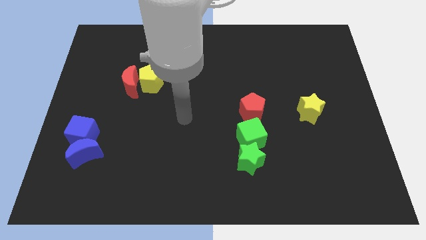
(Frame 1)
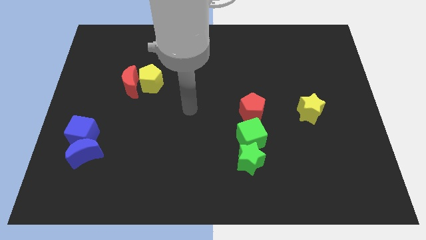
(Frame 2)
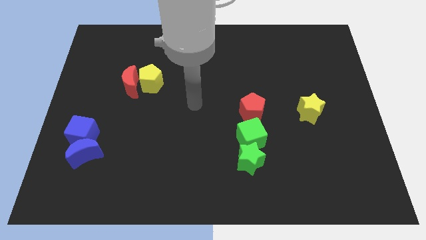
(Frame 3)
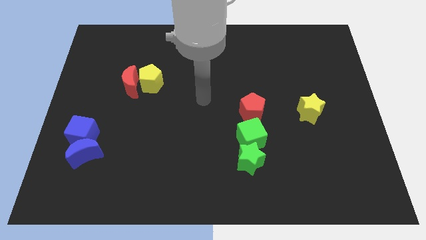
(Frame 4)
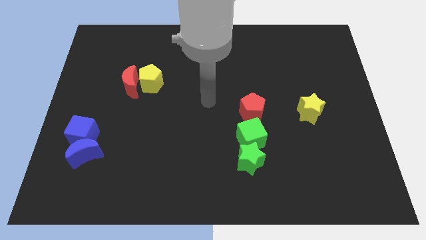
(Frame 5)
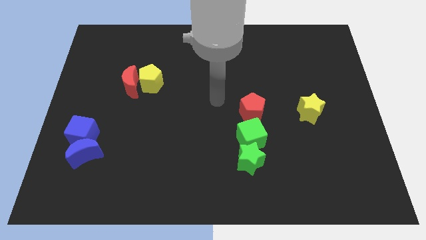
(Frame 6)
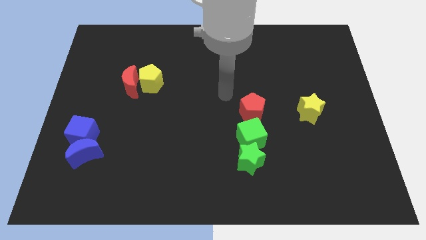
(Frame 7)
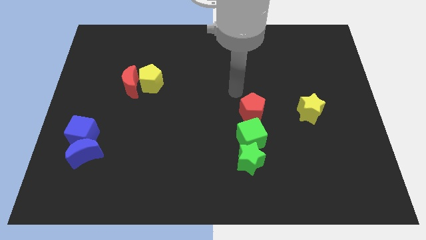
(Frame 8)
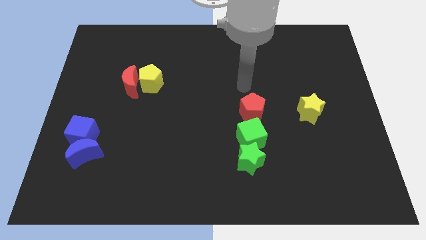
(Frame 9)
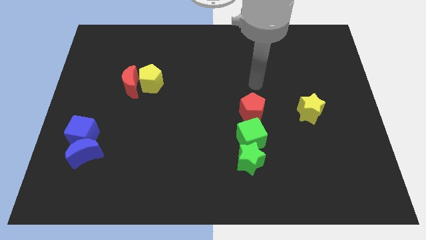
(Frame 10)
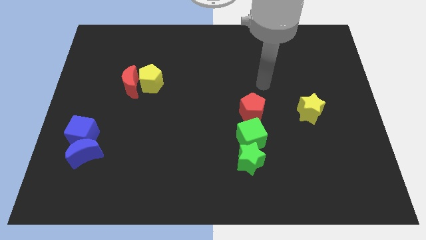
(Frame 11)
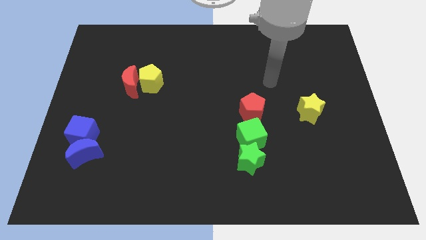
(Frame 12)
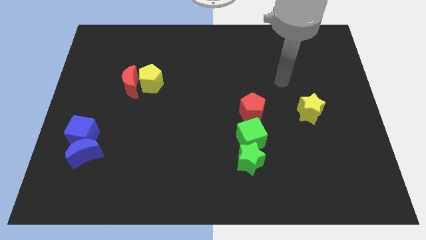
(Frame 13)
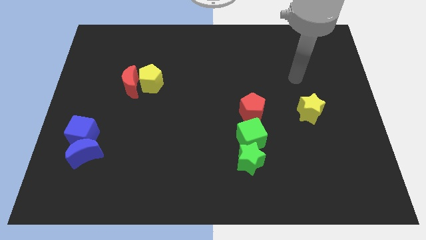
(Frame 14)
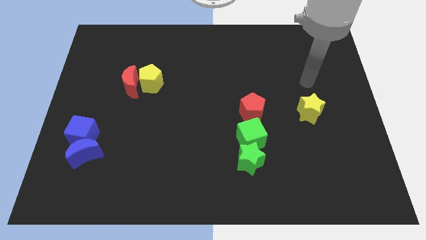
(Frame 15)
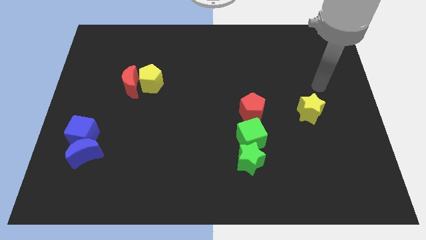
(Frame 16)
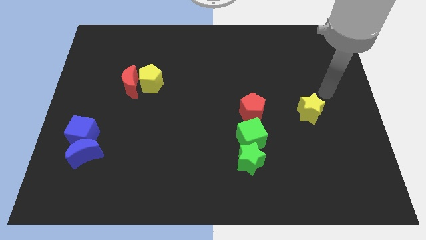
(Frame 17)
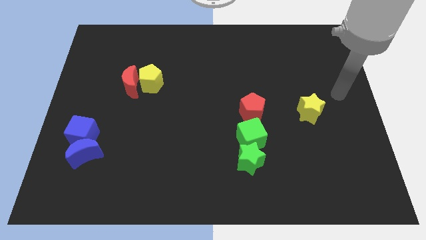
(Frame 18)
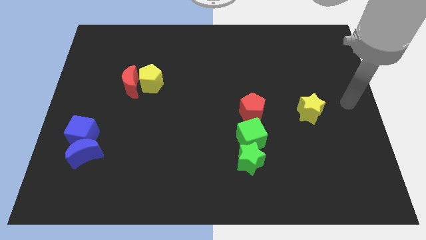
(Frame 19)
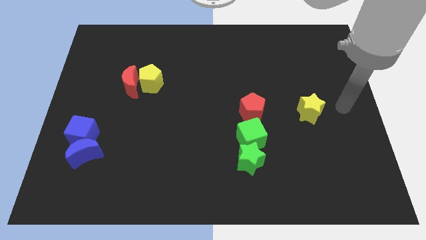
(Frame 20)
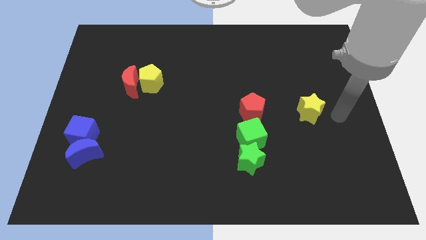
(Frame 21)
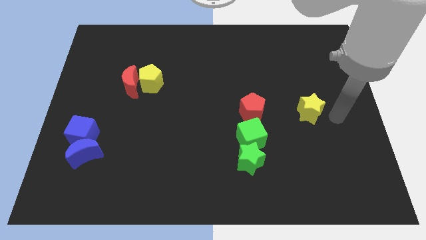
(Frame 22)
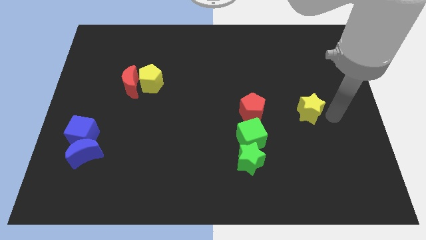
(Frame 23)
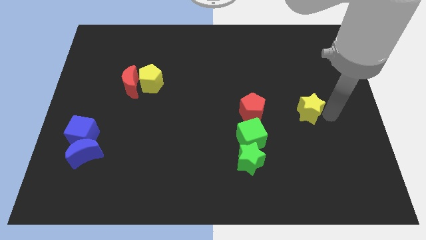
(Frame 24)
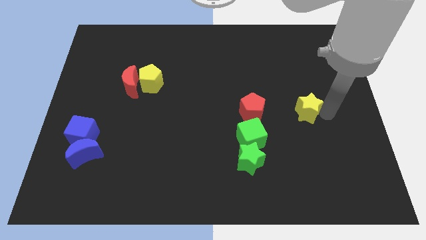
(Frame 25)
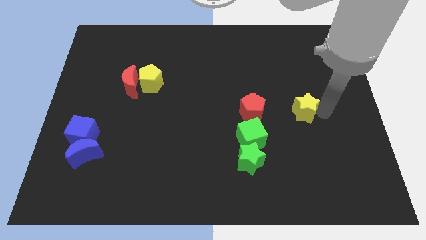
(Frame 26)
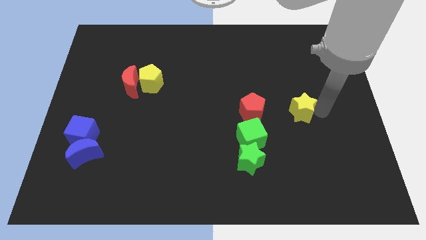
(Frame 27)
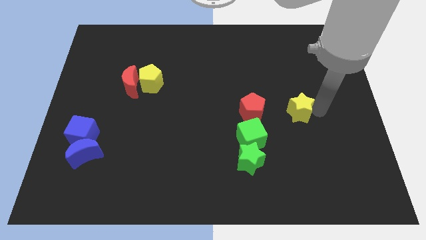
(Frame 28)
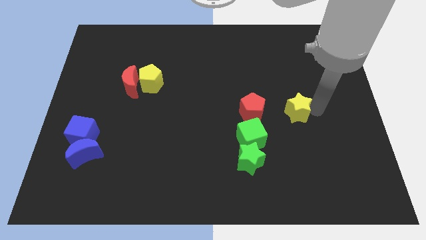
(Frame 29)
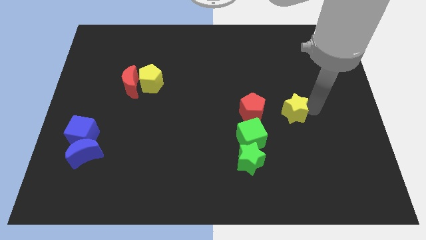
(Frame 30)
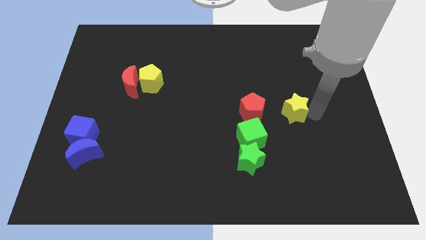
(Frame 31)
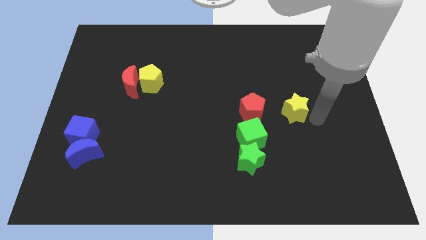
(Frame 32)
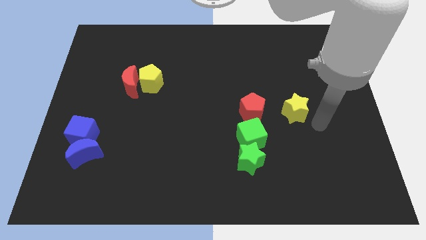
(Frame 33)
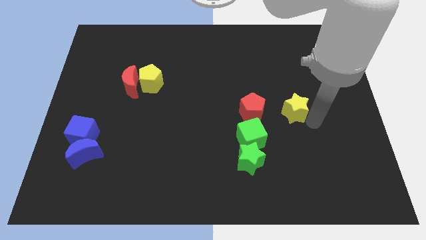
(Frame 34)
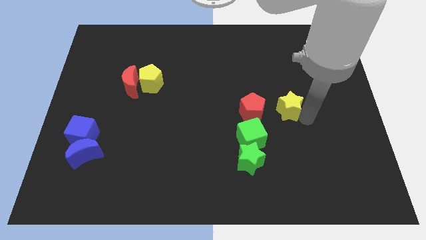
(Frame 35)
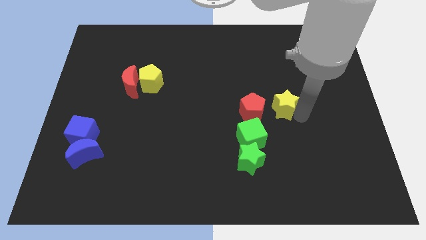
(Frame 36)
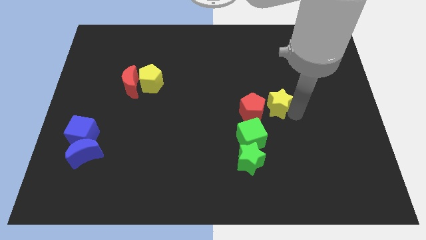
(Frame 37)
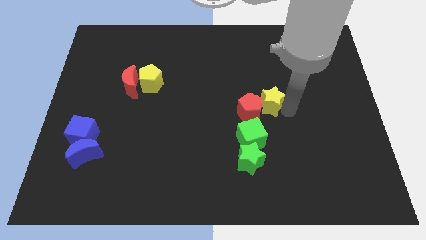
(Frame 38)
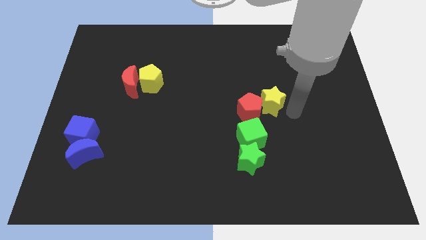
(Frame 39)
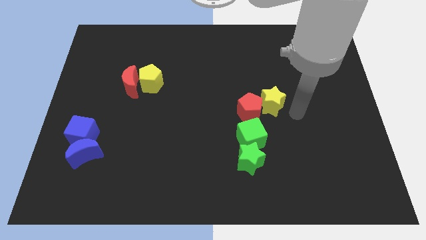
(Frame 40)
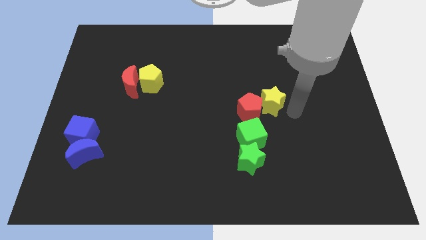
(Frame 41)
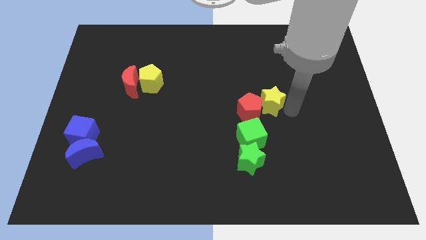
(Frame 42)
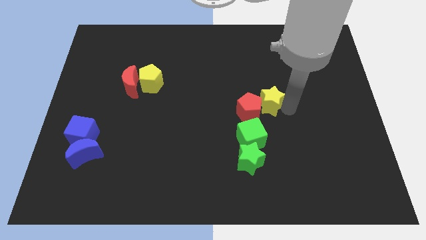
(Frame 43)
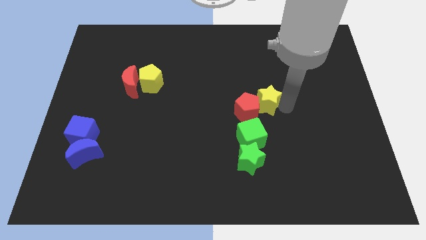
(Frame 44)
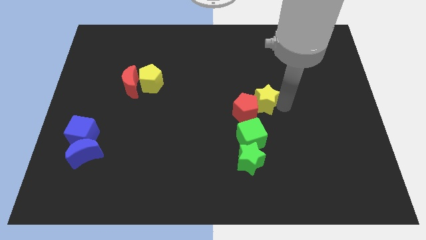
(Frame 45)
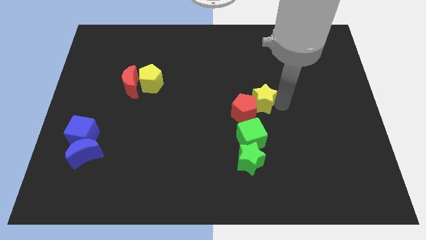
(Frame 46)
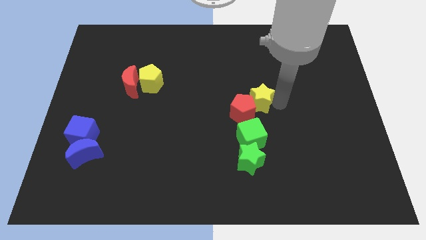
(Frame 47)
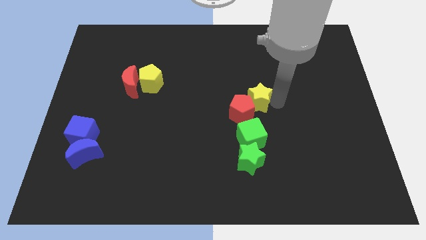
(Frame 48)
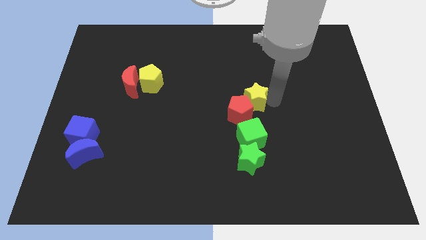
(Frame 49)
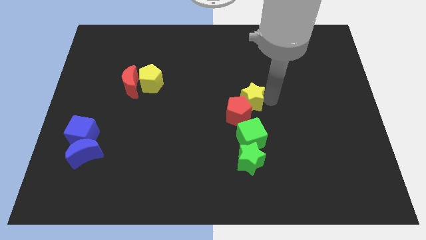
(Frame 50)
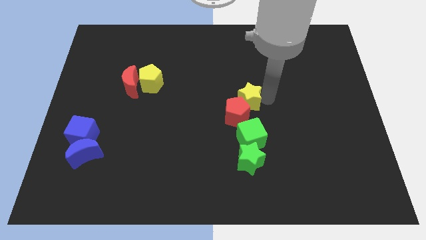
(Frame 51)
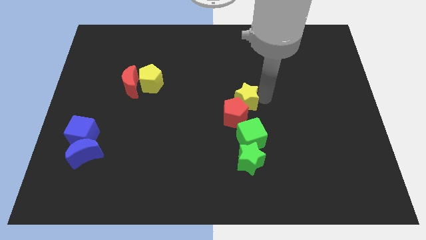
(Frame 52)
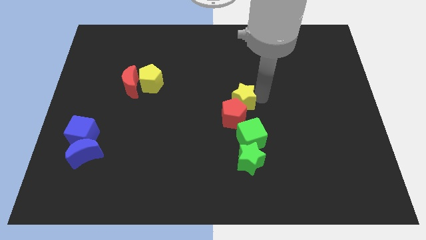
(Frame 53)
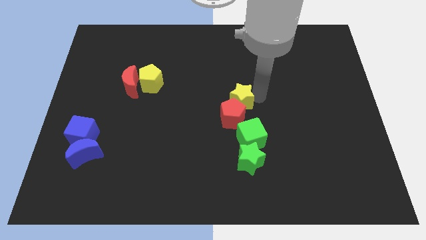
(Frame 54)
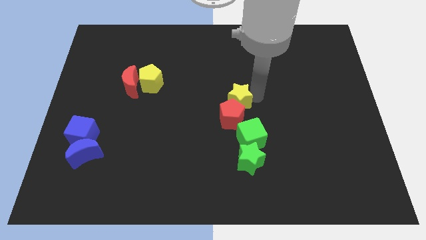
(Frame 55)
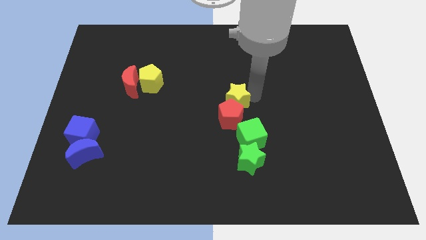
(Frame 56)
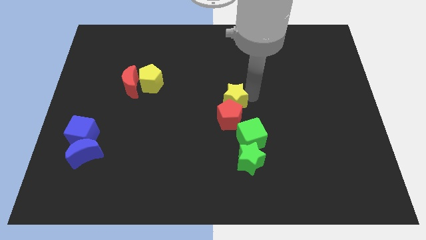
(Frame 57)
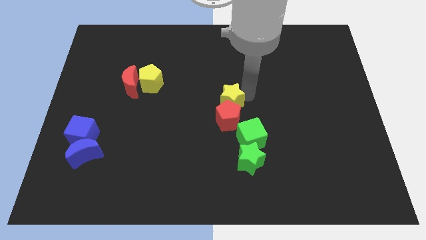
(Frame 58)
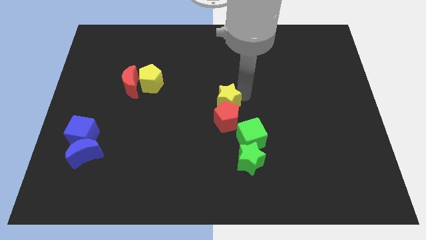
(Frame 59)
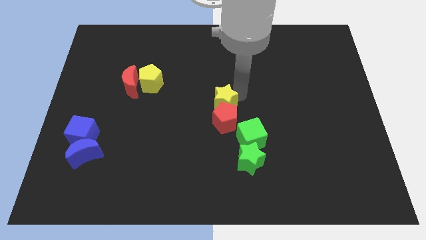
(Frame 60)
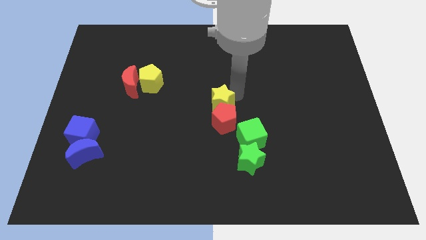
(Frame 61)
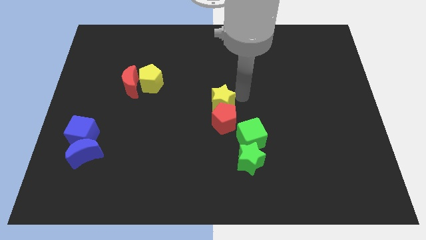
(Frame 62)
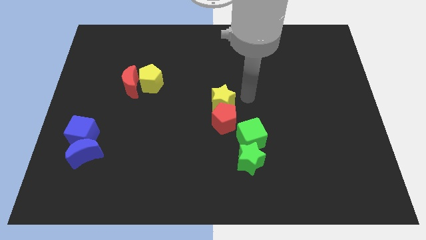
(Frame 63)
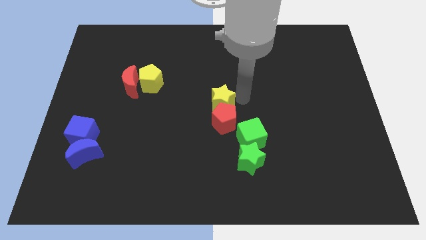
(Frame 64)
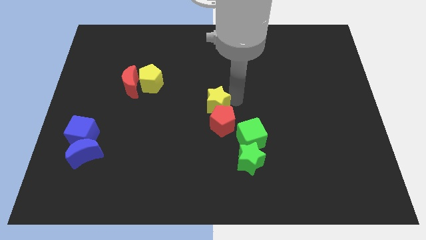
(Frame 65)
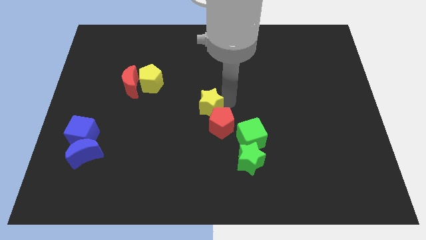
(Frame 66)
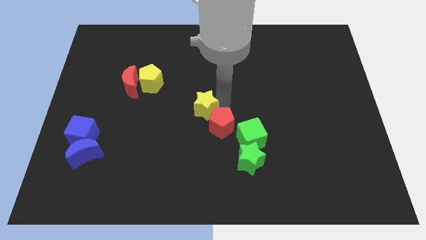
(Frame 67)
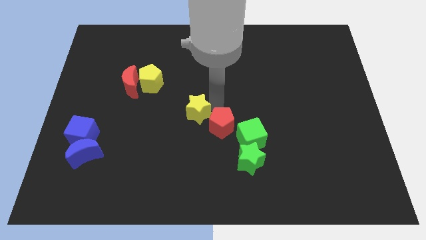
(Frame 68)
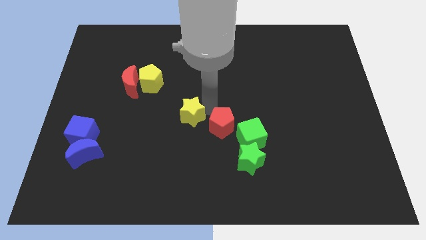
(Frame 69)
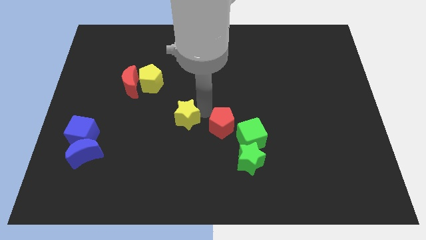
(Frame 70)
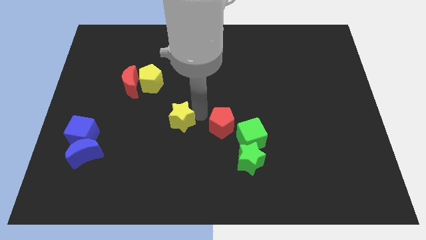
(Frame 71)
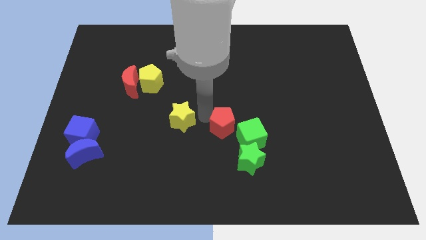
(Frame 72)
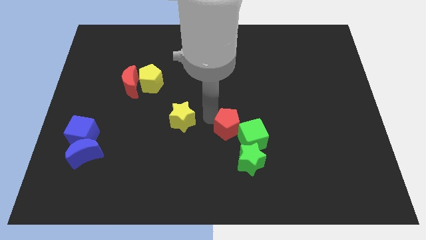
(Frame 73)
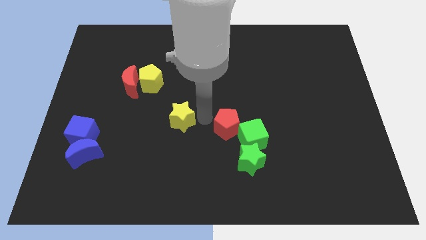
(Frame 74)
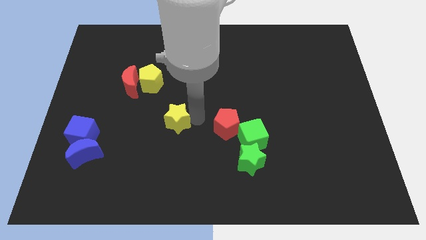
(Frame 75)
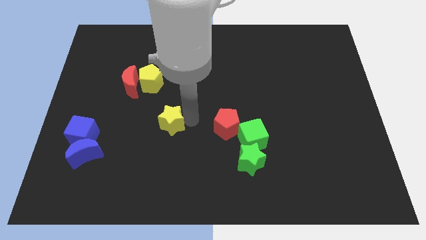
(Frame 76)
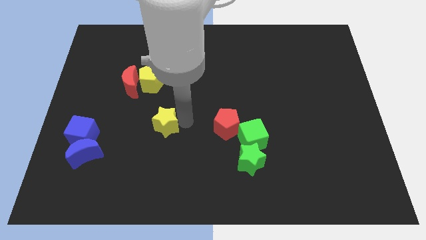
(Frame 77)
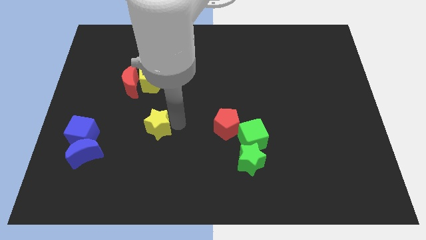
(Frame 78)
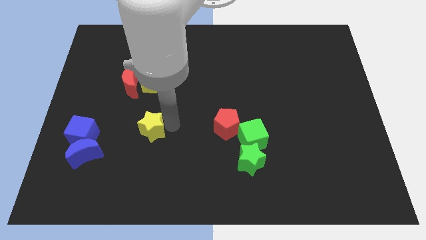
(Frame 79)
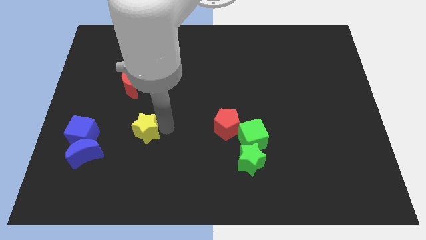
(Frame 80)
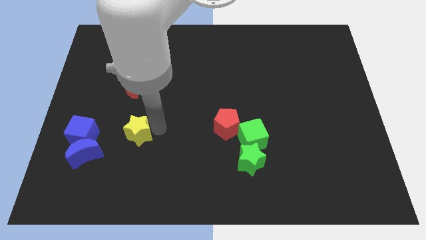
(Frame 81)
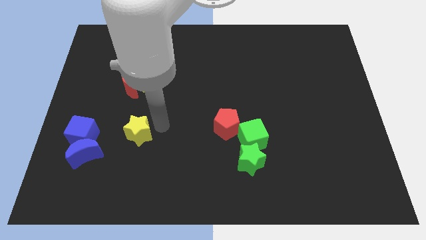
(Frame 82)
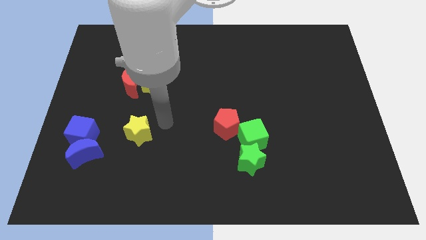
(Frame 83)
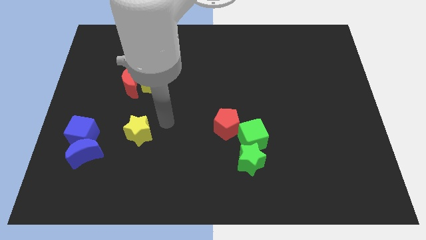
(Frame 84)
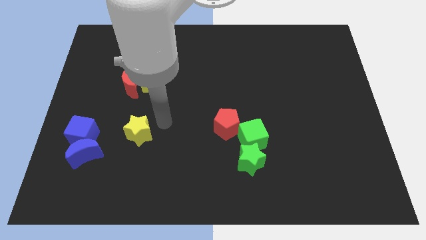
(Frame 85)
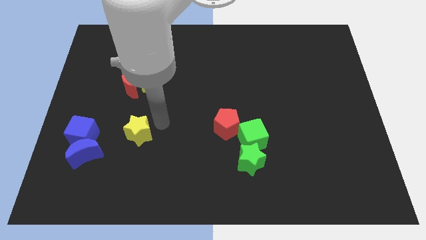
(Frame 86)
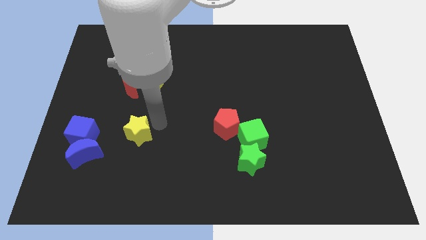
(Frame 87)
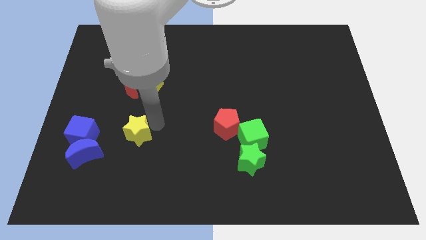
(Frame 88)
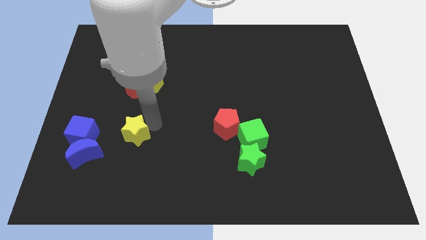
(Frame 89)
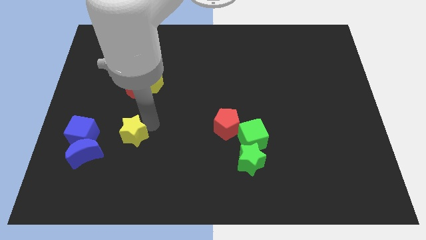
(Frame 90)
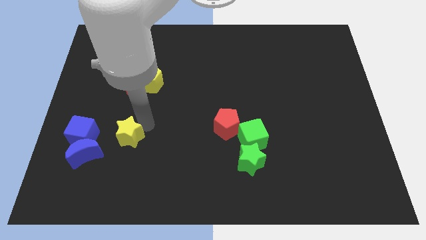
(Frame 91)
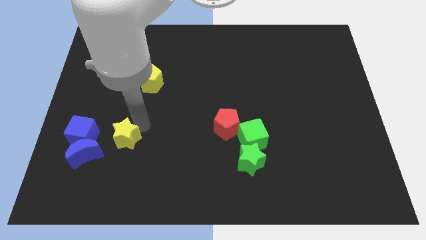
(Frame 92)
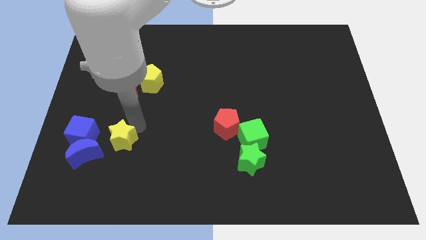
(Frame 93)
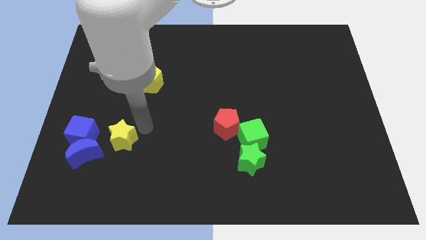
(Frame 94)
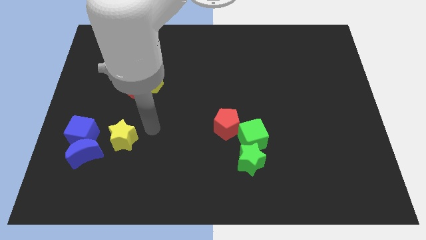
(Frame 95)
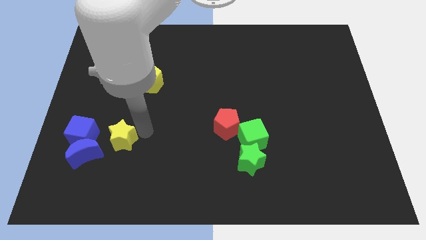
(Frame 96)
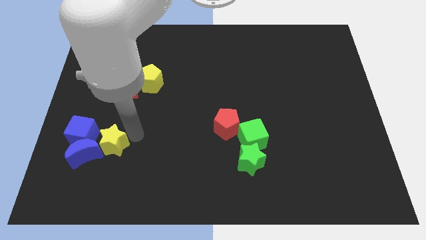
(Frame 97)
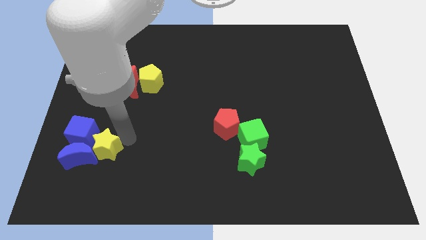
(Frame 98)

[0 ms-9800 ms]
put the yellow star next to the blue moon
